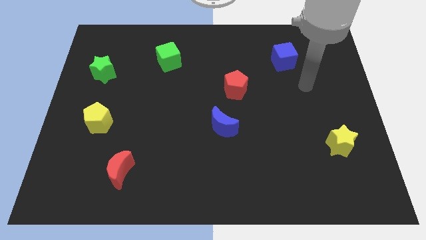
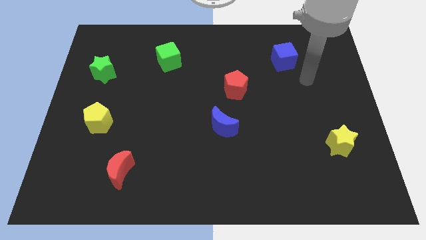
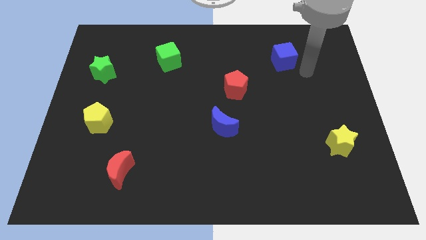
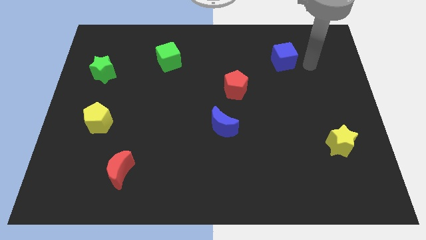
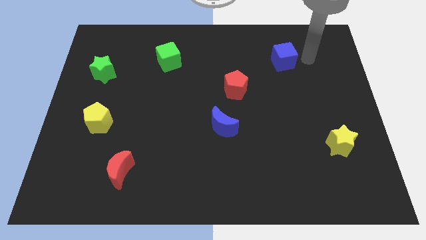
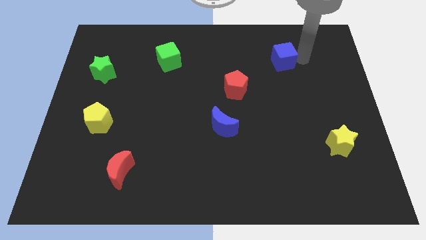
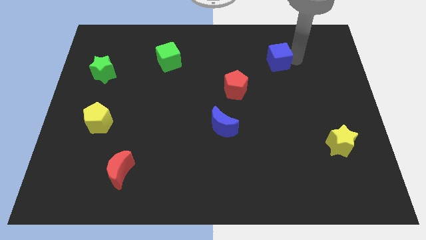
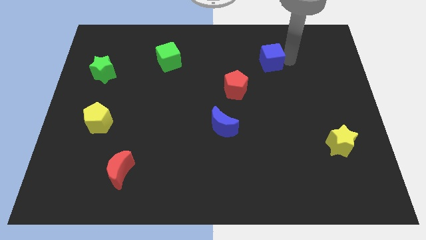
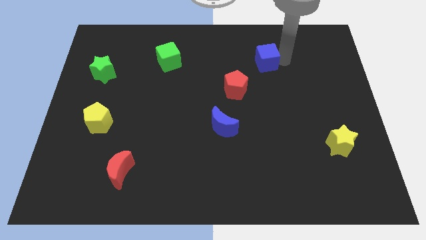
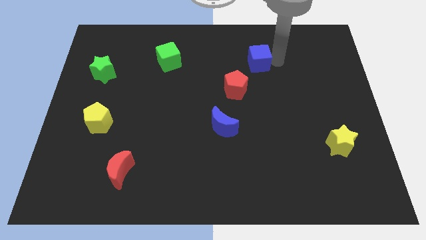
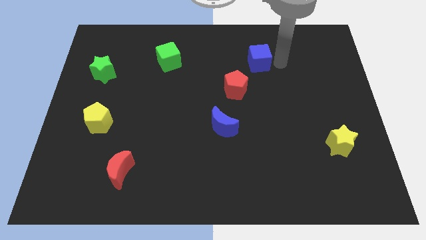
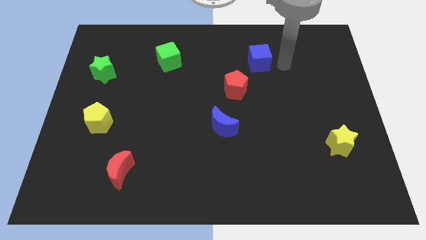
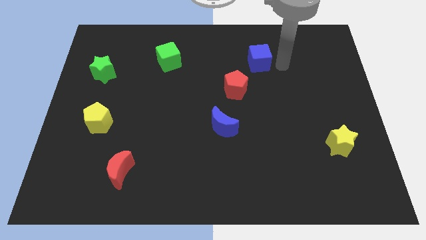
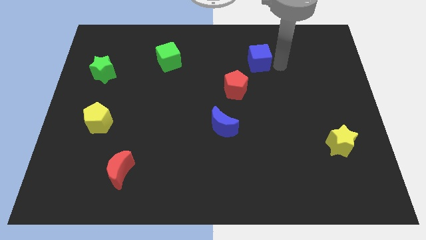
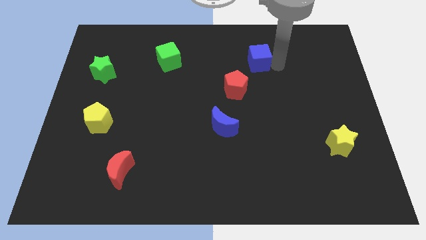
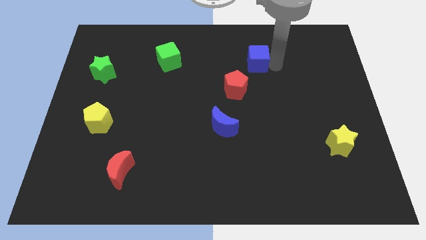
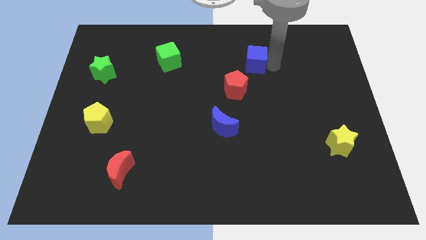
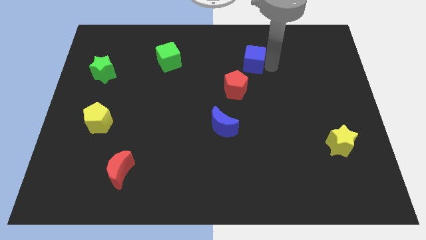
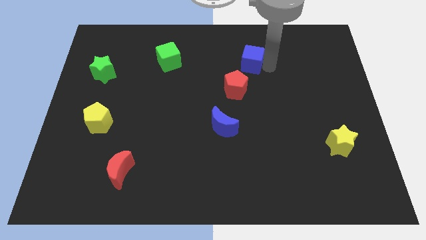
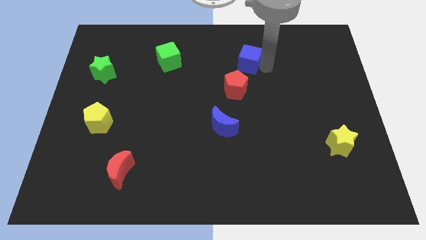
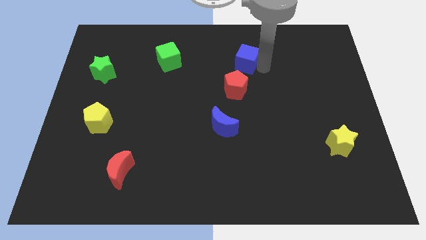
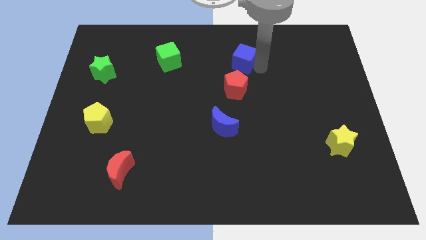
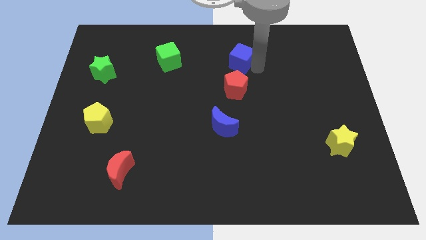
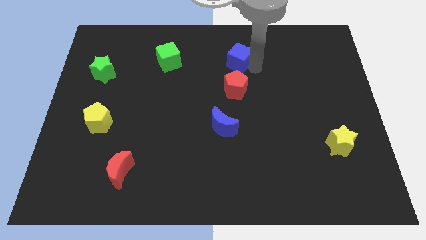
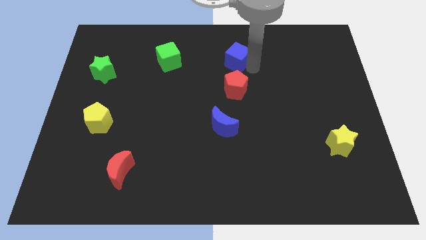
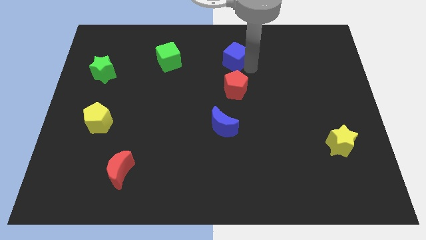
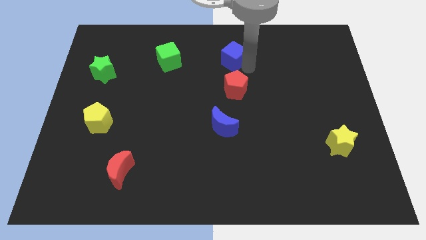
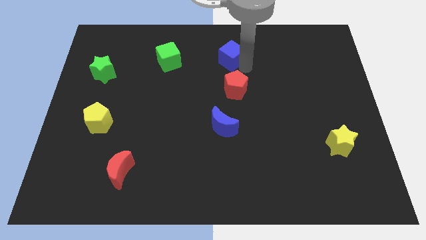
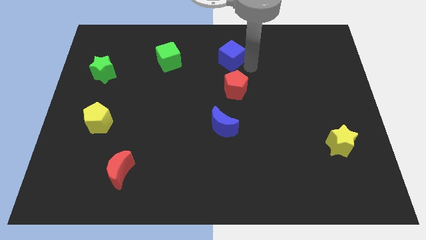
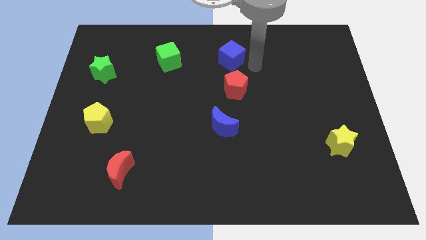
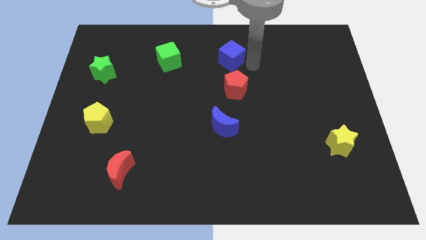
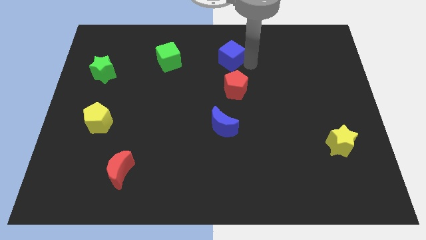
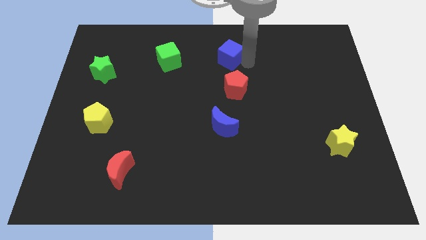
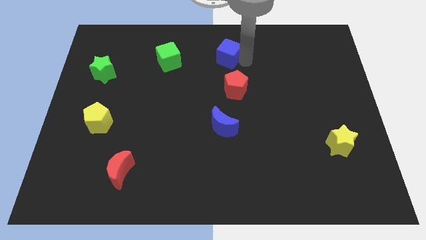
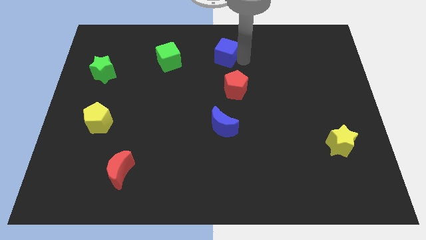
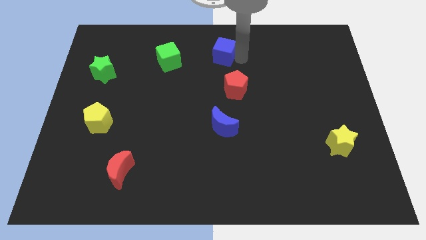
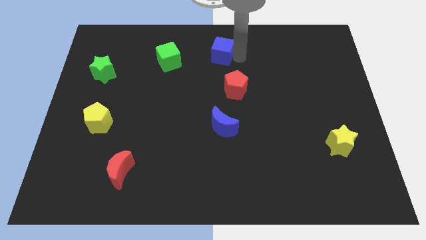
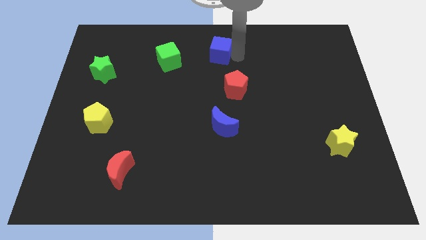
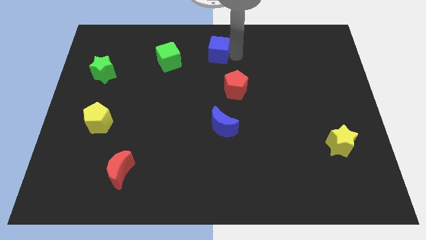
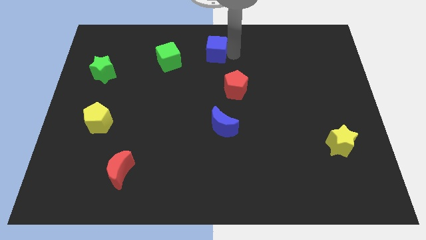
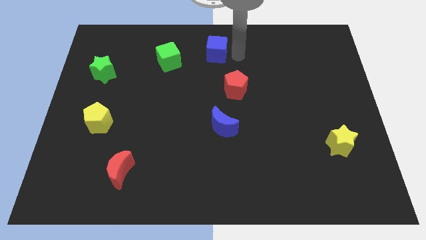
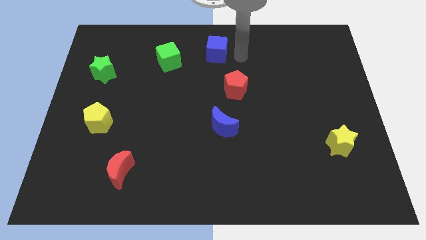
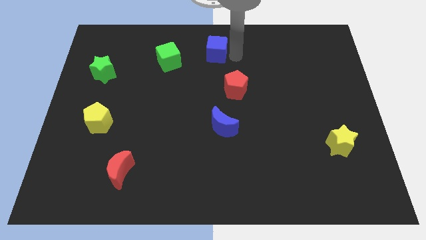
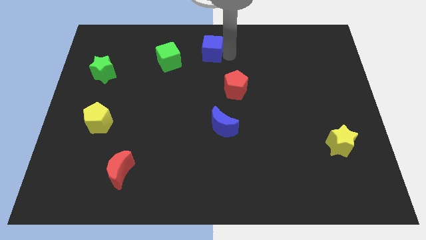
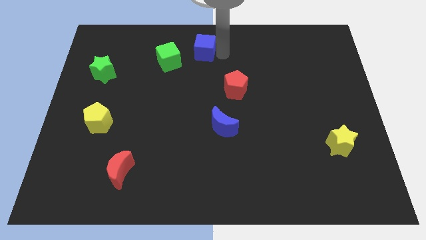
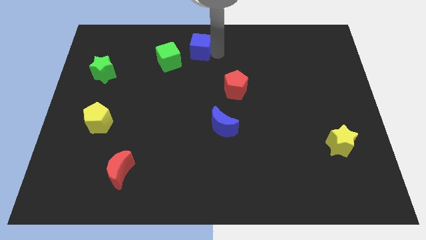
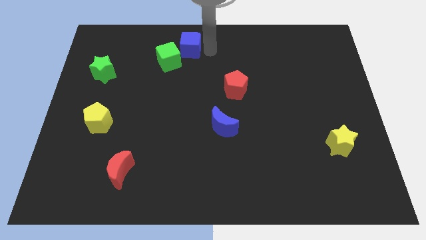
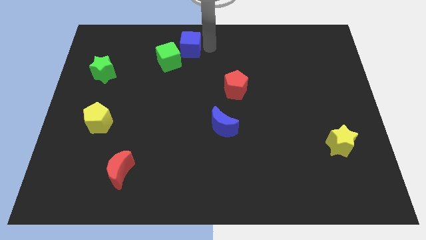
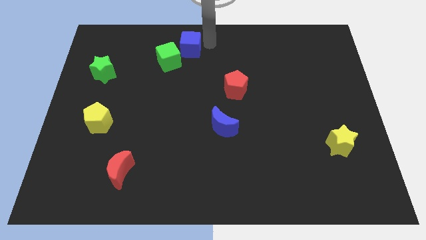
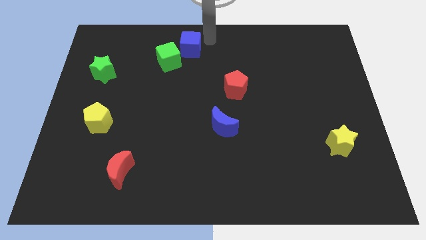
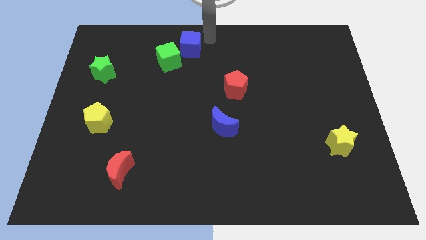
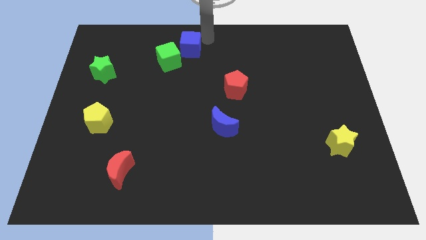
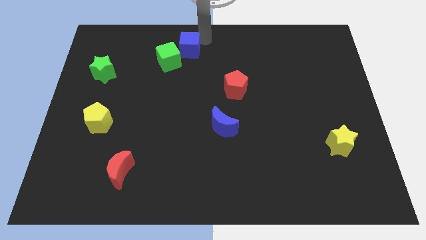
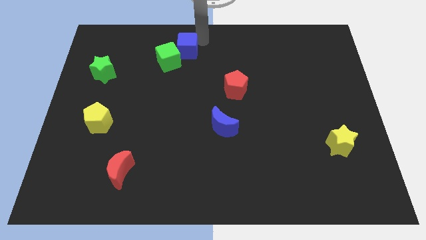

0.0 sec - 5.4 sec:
put the blue cube to the green cube

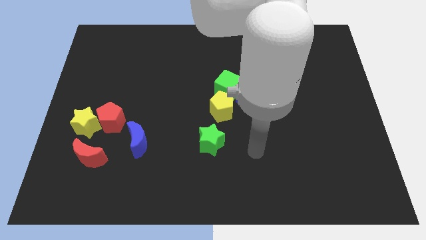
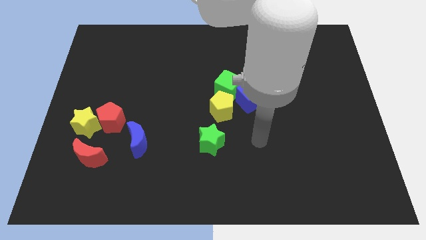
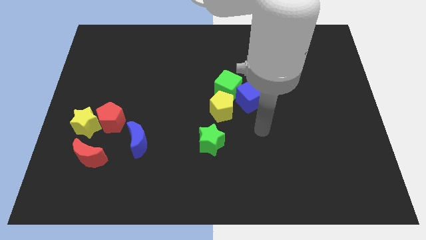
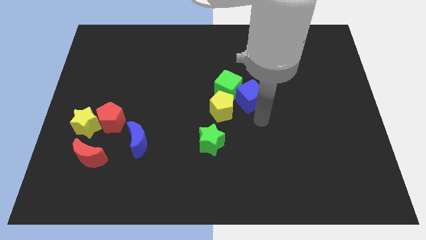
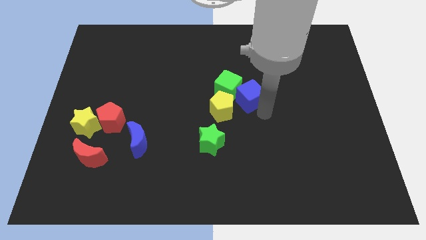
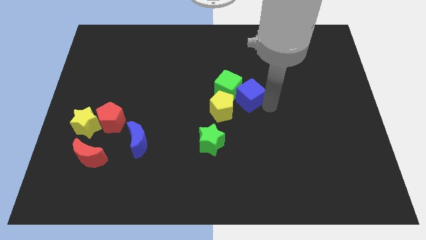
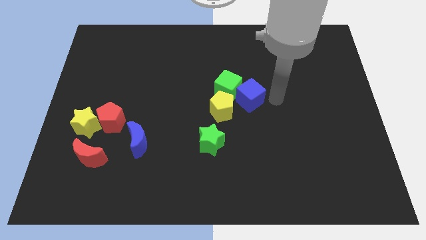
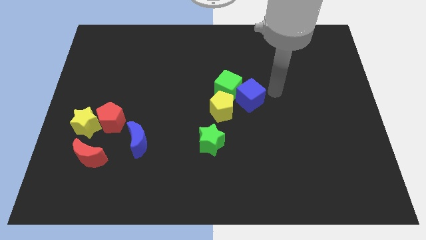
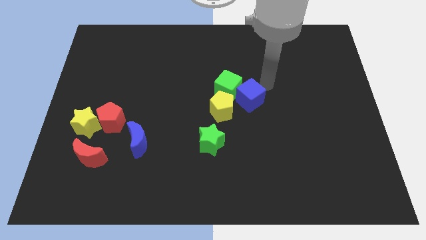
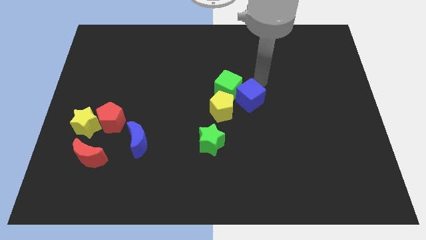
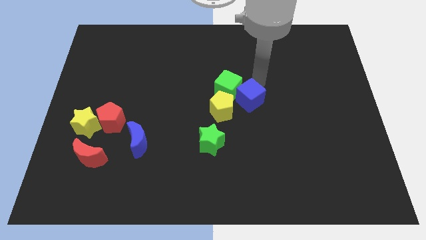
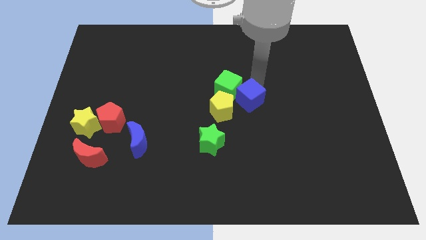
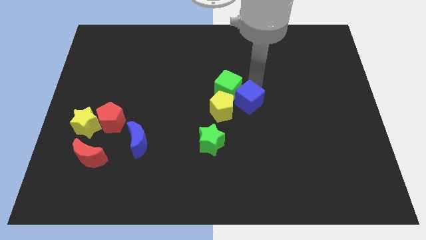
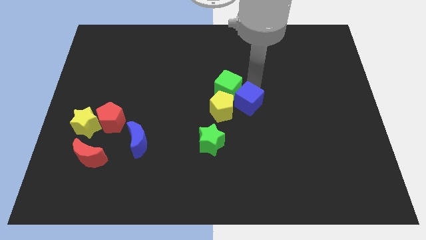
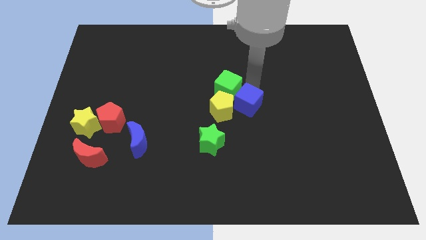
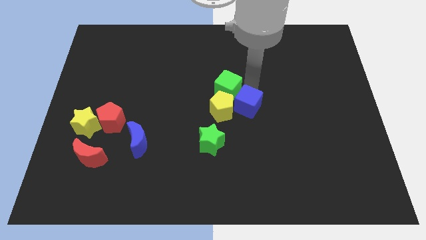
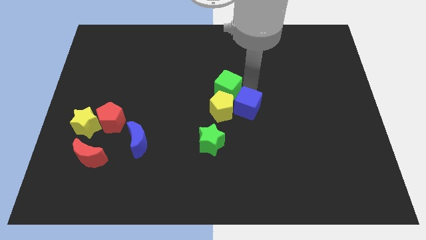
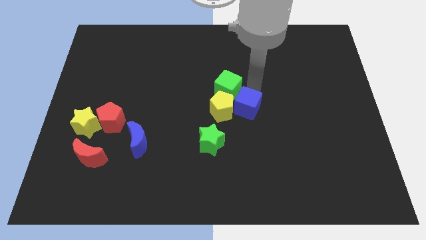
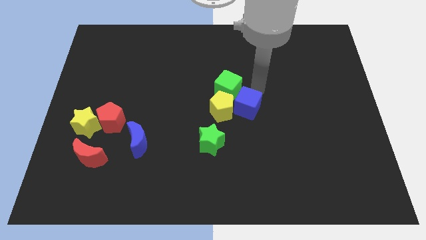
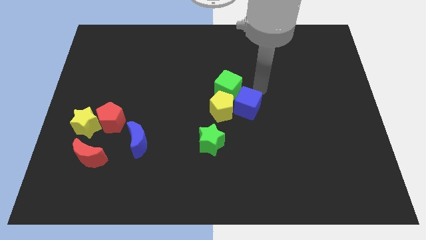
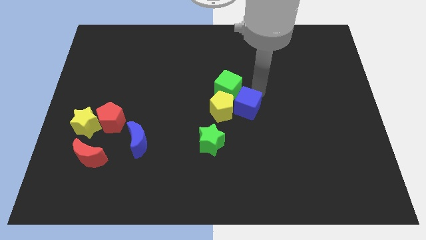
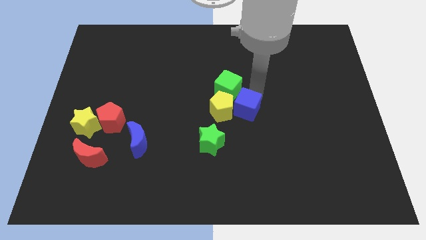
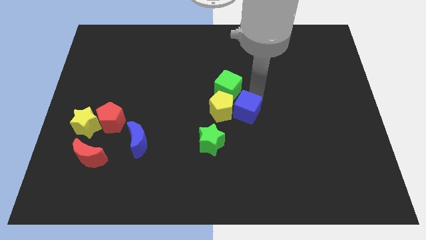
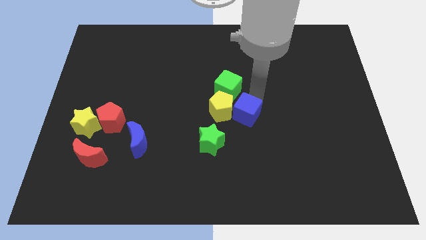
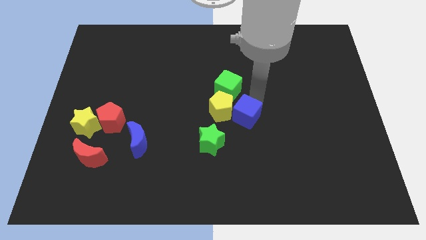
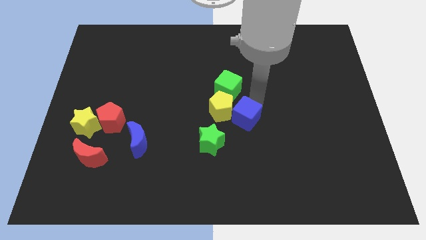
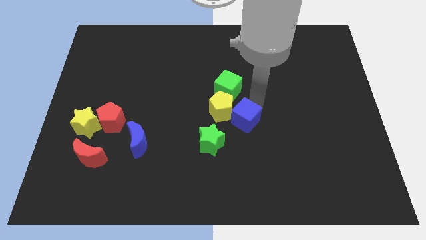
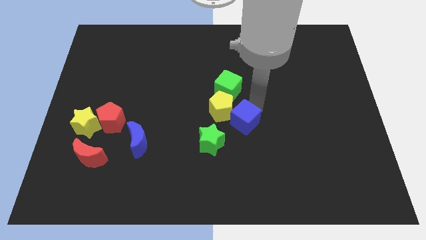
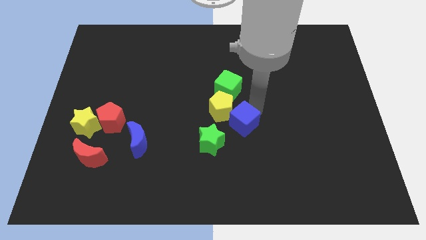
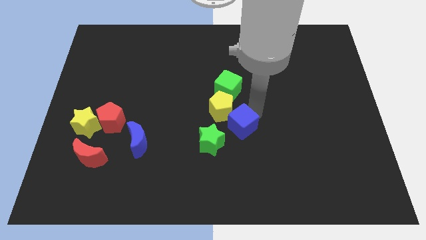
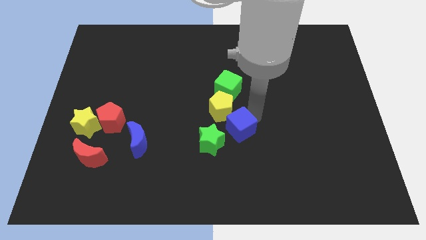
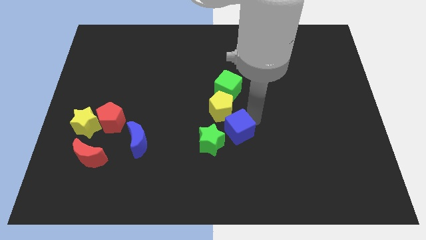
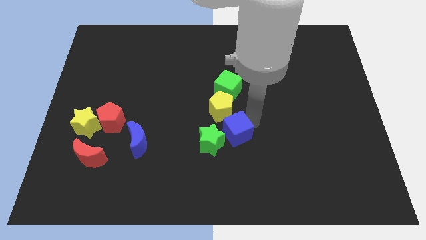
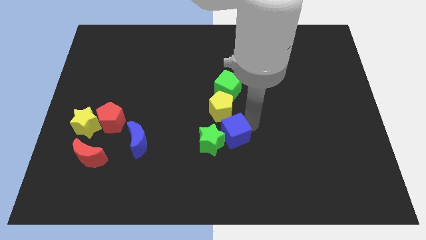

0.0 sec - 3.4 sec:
move the blue cube next to the green star
